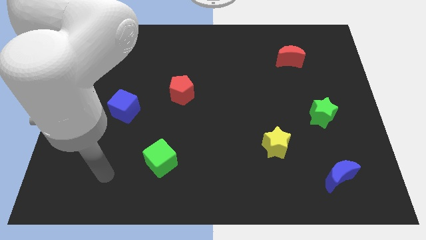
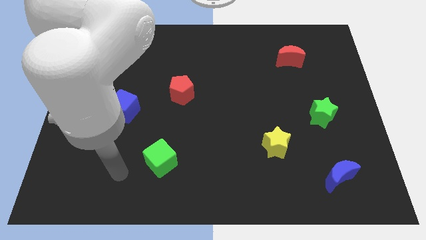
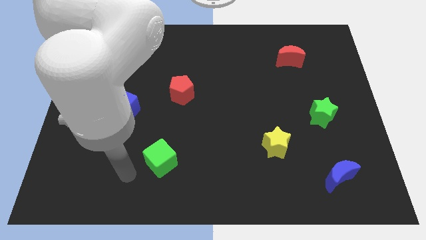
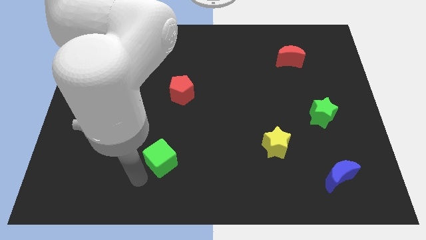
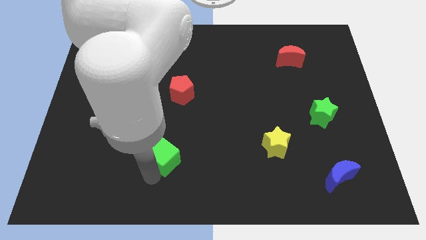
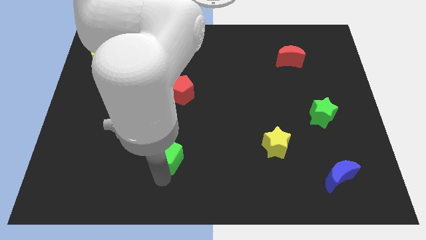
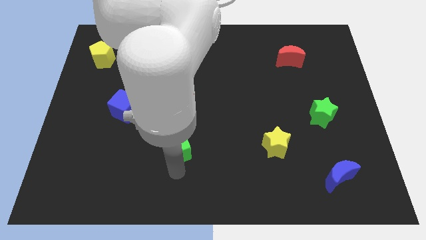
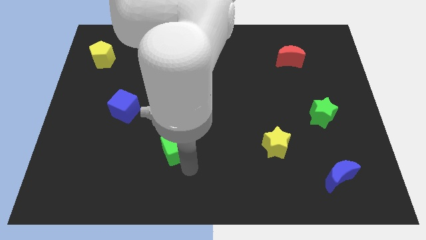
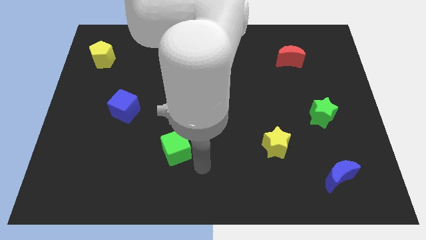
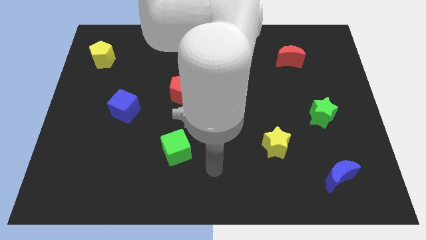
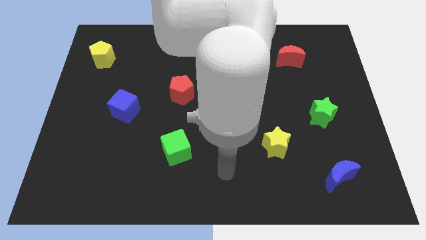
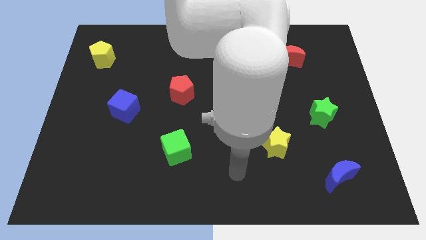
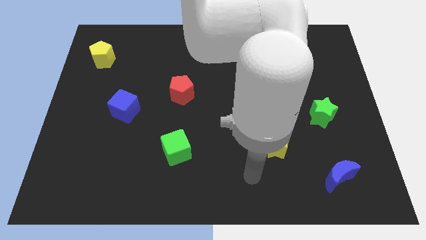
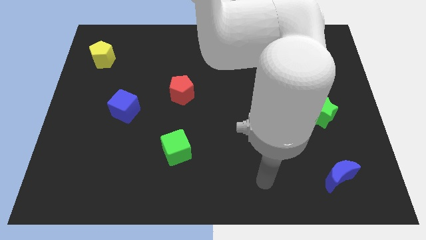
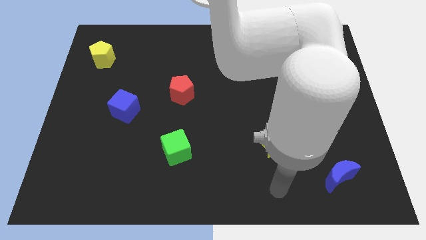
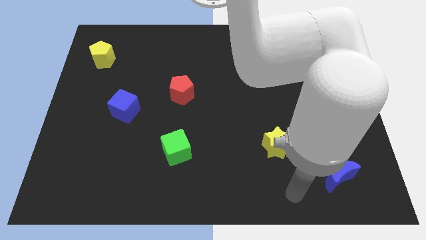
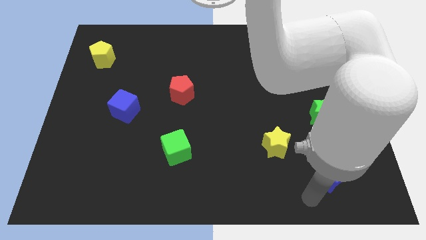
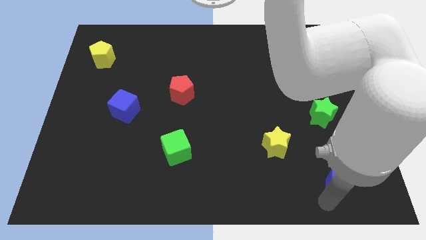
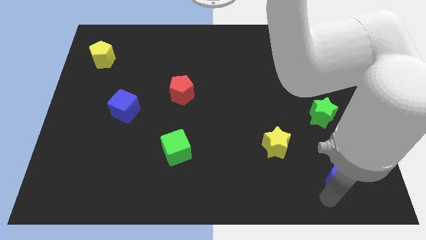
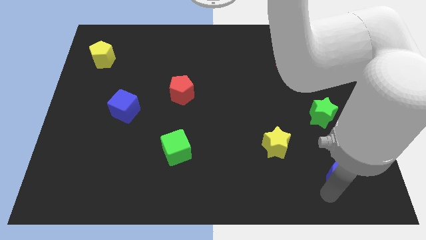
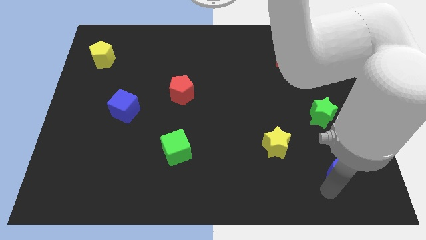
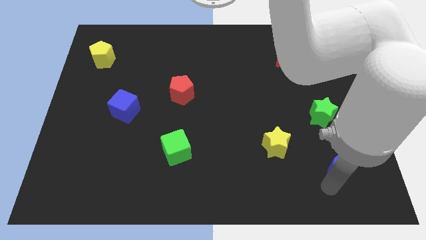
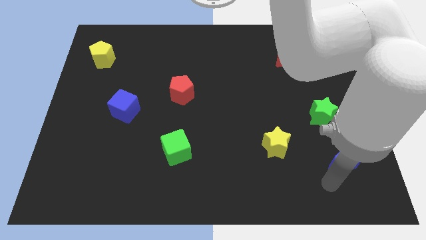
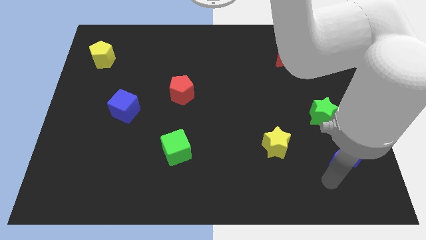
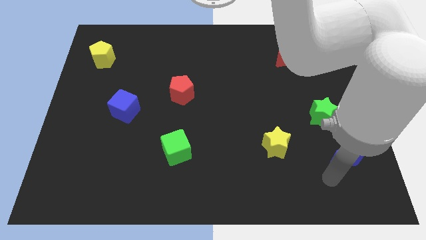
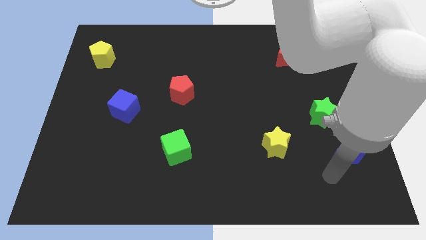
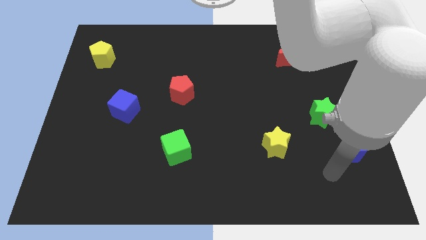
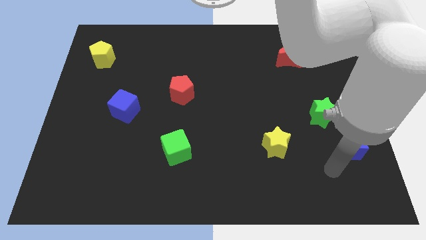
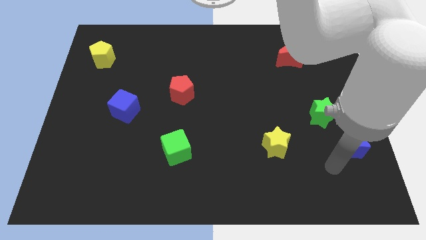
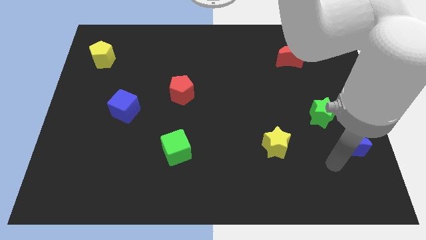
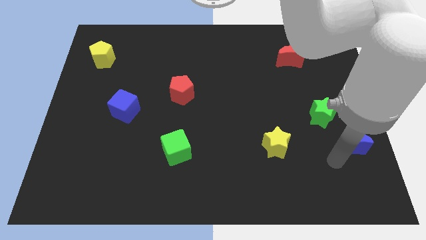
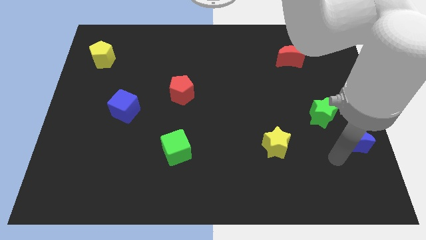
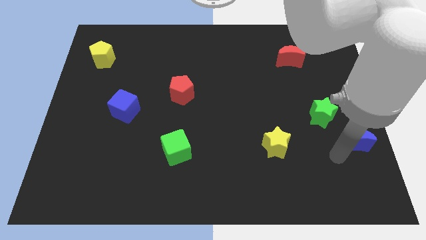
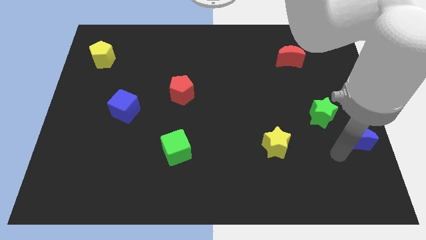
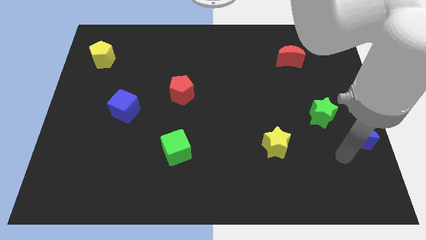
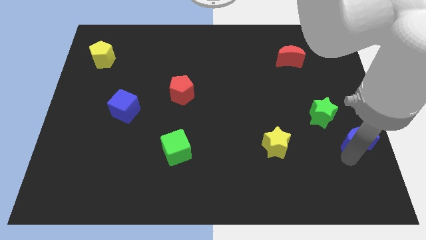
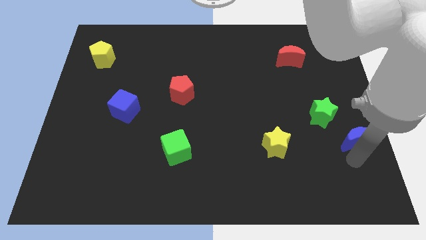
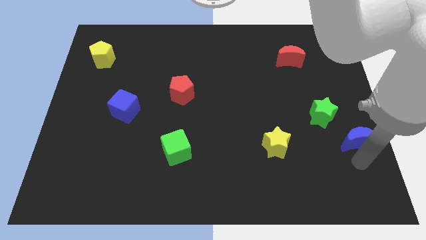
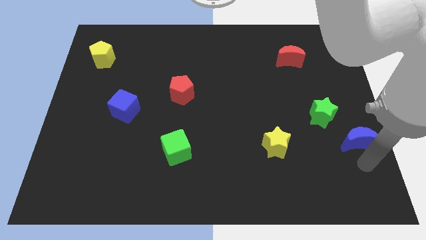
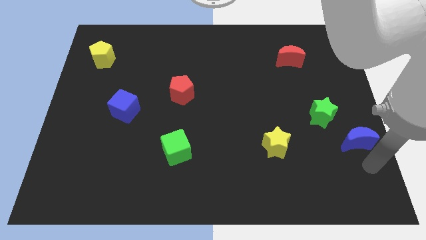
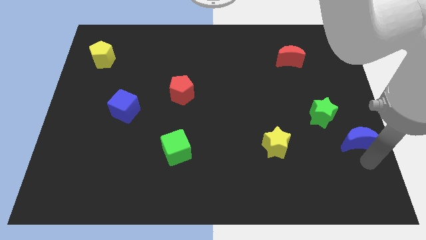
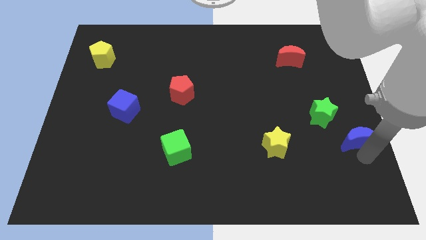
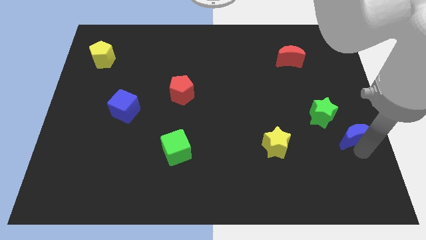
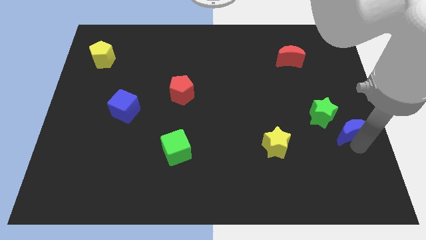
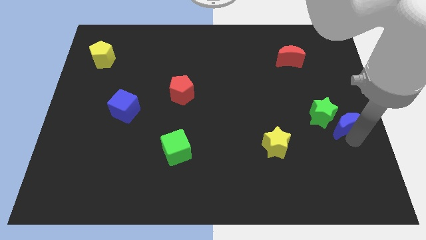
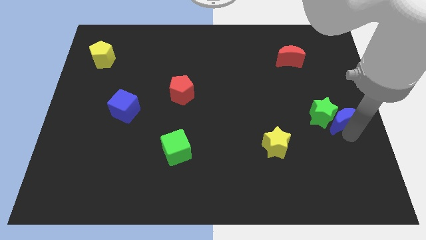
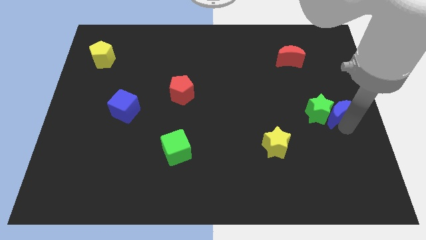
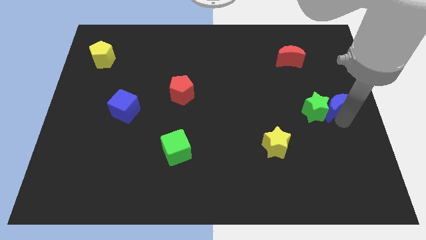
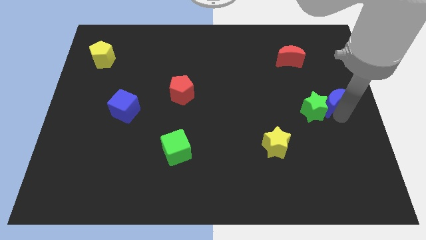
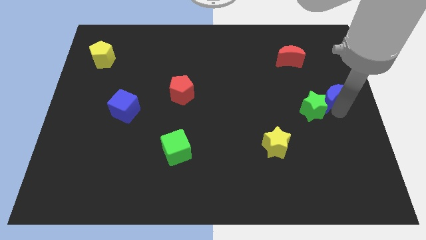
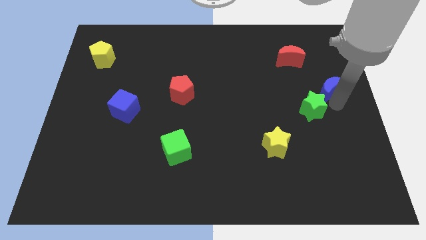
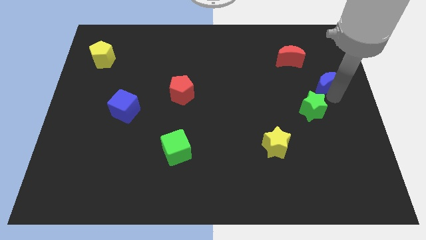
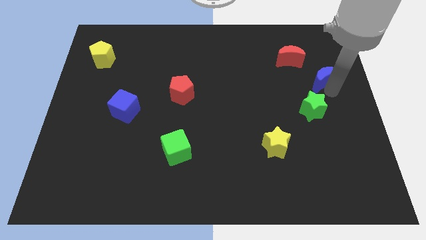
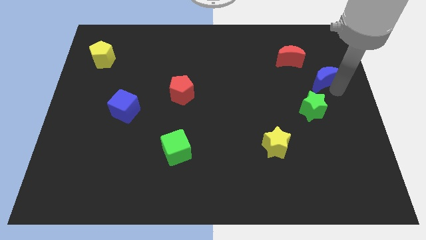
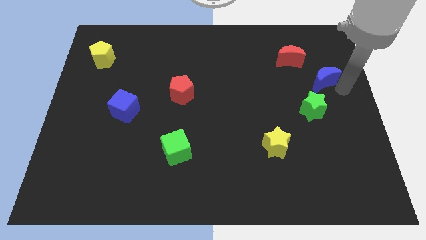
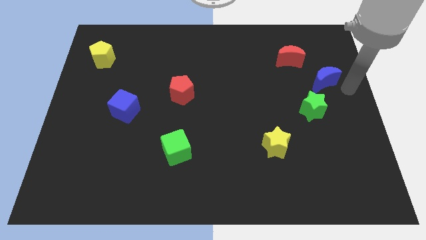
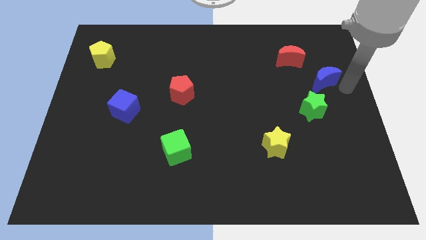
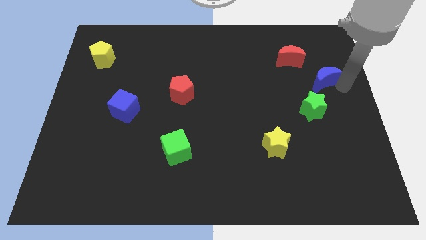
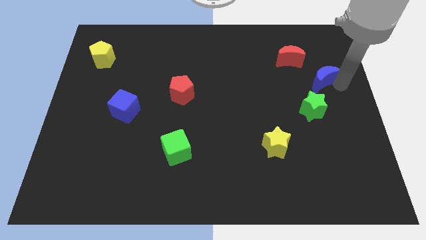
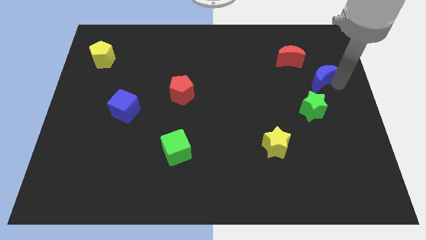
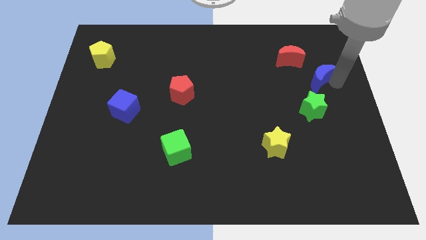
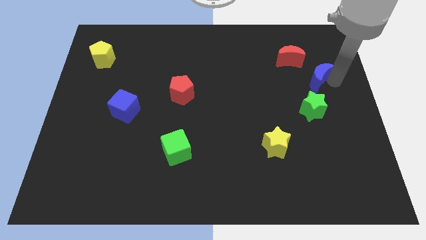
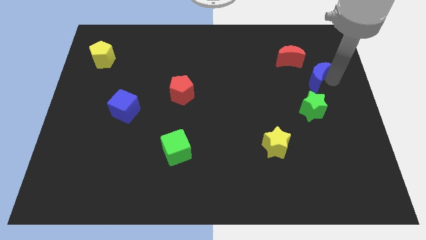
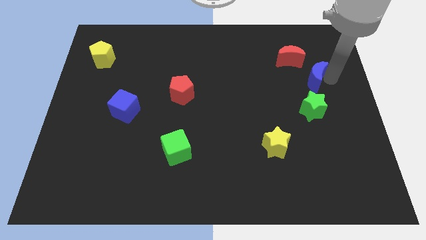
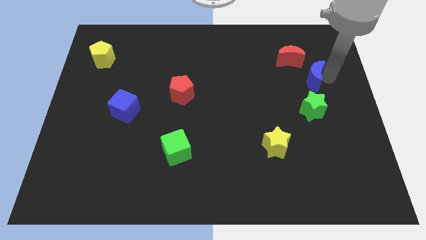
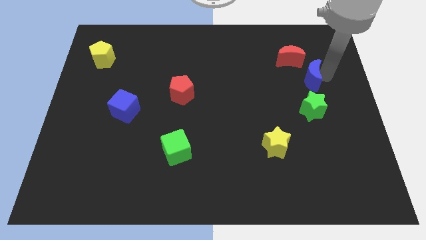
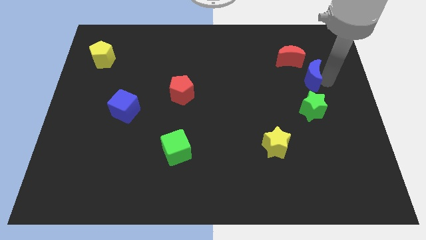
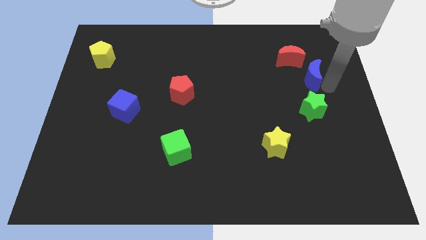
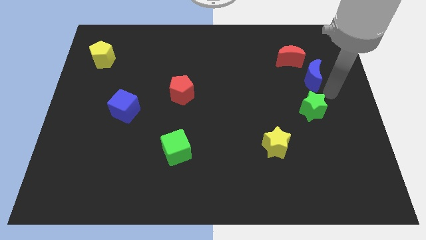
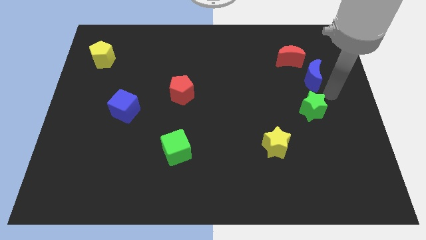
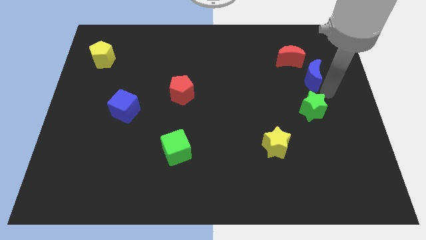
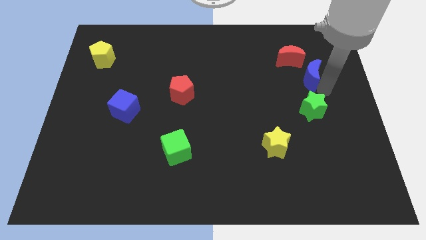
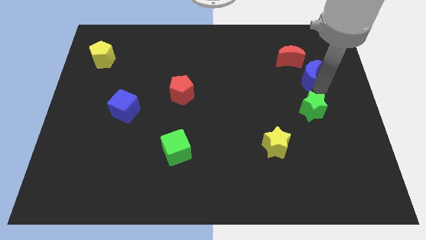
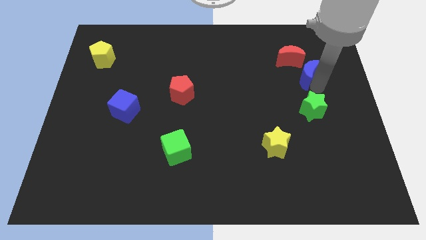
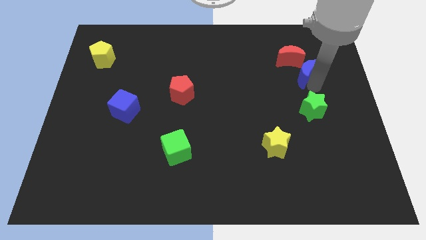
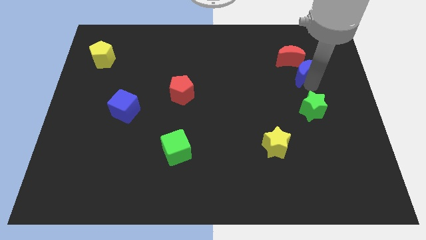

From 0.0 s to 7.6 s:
push the blue moon next to the red moon
